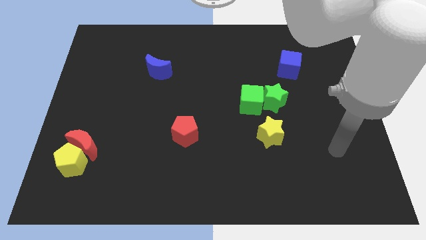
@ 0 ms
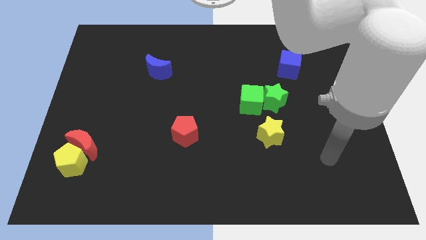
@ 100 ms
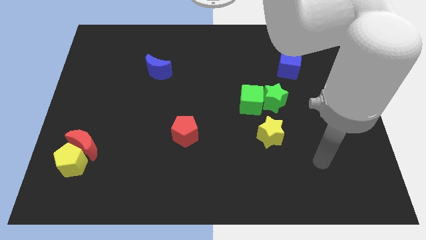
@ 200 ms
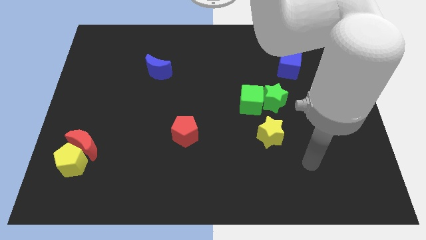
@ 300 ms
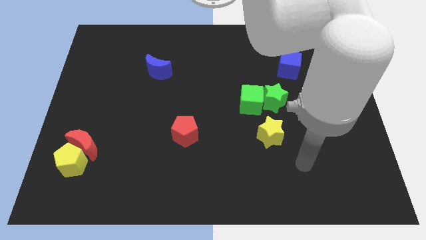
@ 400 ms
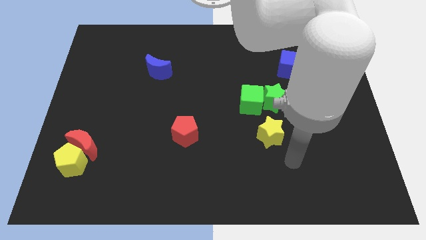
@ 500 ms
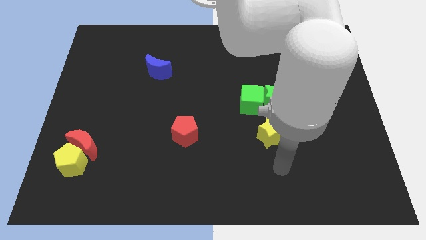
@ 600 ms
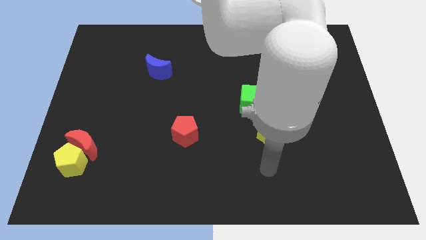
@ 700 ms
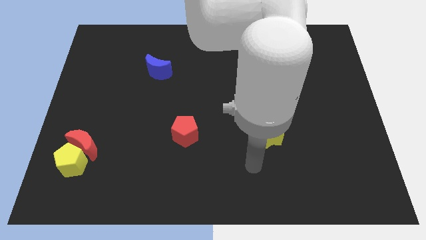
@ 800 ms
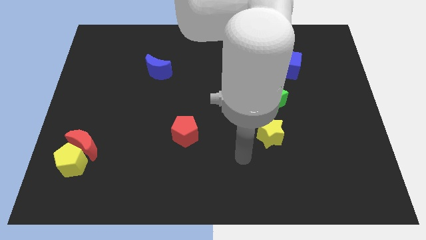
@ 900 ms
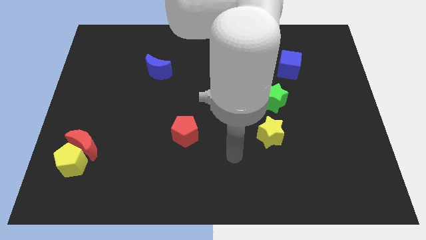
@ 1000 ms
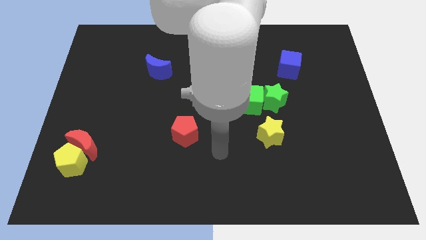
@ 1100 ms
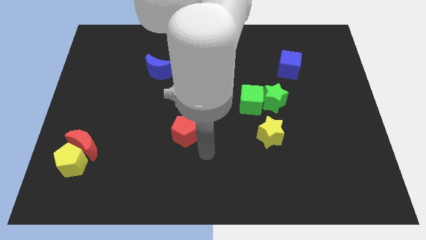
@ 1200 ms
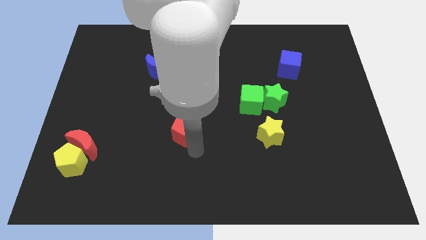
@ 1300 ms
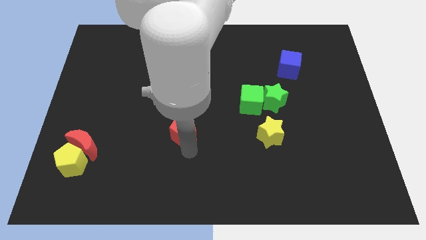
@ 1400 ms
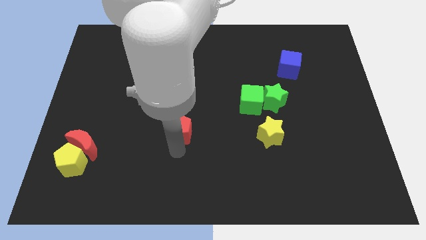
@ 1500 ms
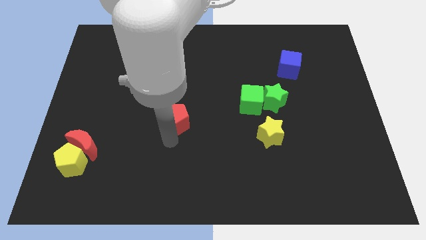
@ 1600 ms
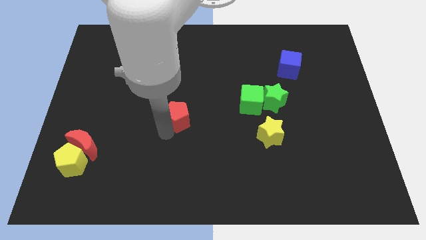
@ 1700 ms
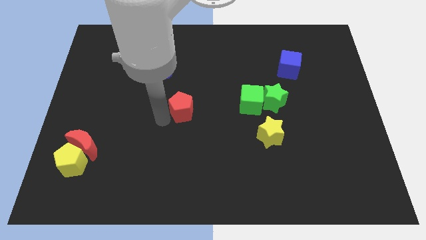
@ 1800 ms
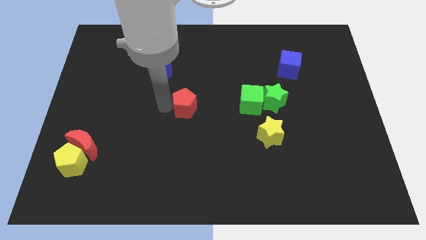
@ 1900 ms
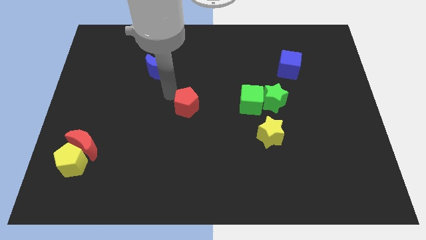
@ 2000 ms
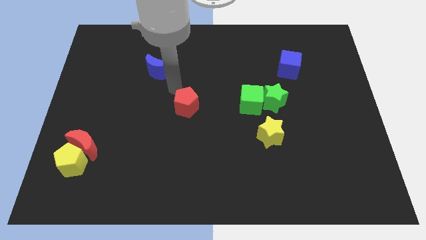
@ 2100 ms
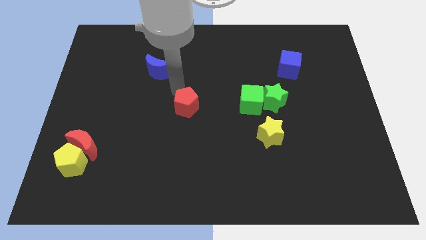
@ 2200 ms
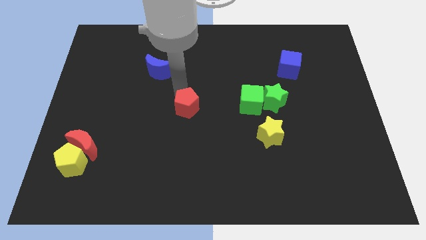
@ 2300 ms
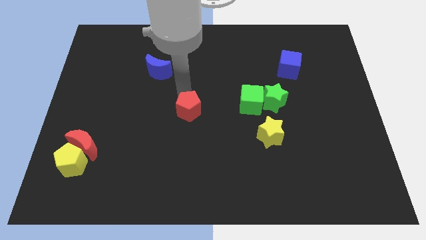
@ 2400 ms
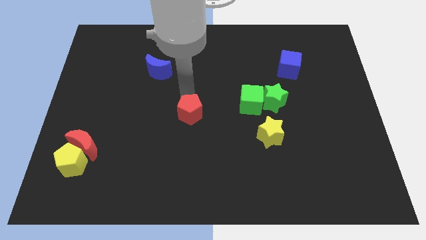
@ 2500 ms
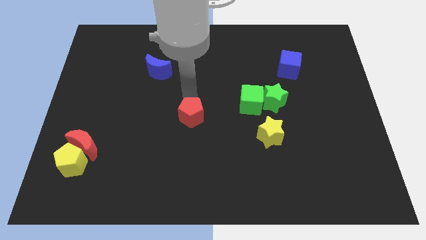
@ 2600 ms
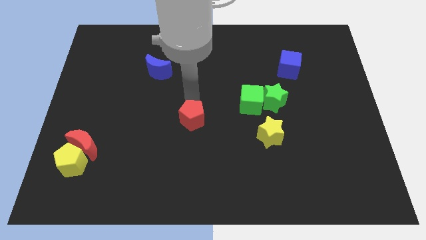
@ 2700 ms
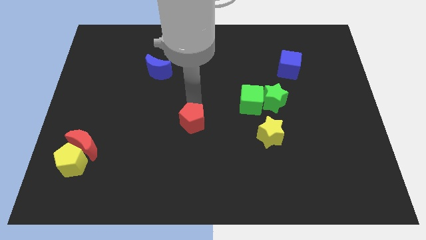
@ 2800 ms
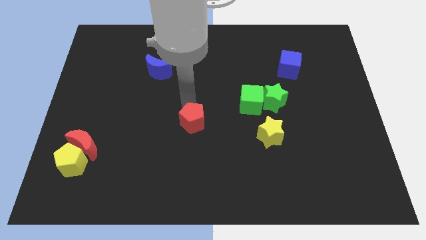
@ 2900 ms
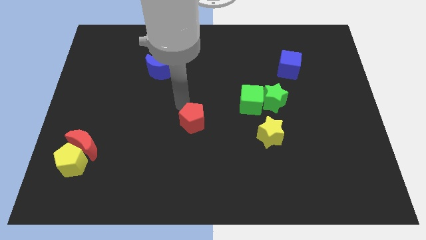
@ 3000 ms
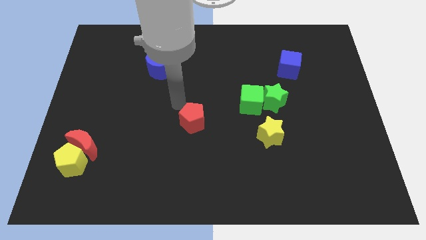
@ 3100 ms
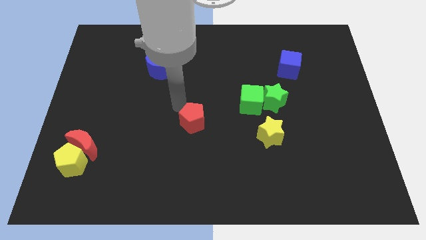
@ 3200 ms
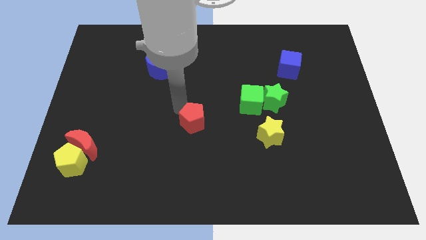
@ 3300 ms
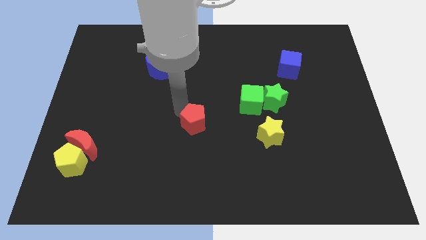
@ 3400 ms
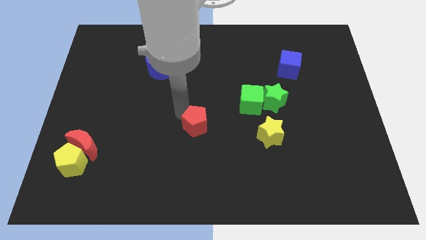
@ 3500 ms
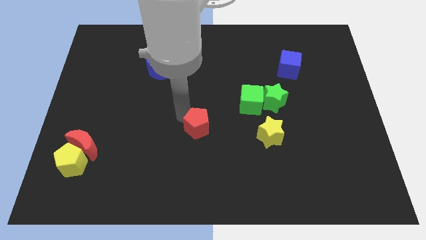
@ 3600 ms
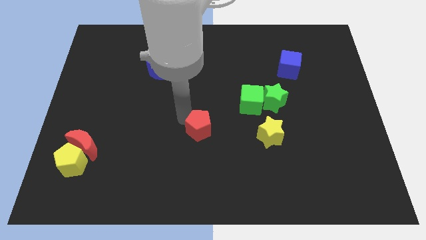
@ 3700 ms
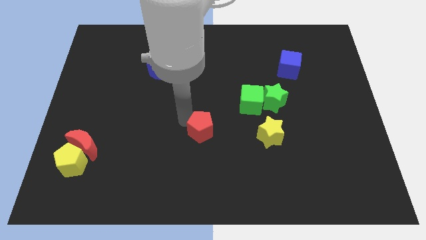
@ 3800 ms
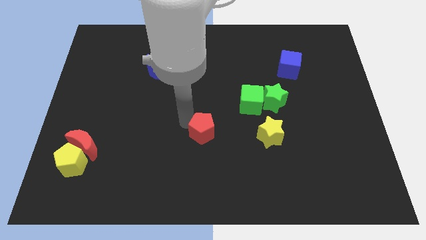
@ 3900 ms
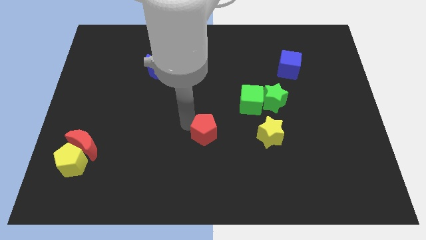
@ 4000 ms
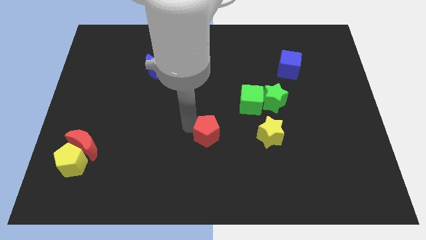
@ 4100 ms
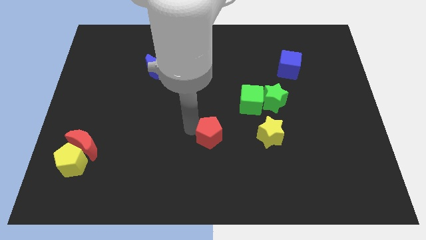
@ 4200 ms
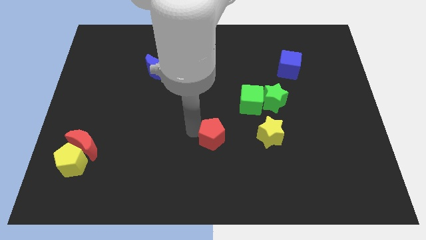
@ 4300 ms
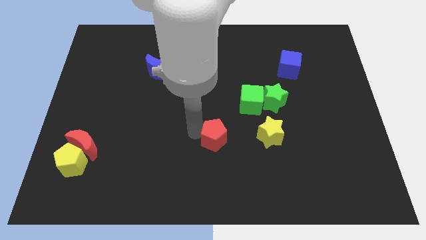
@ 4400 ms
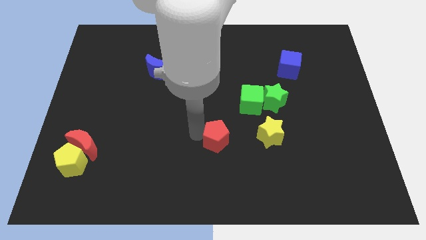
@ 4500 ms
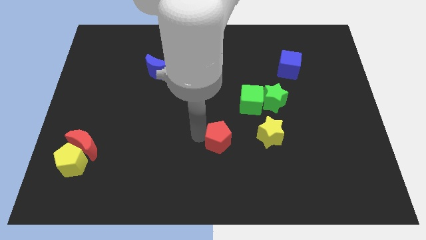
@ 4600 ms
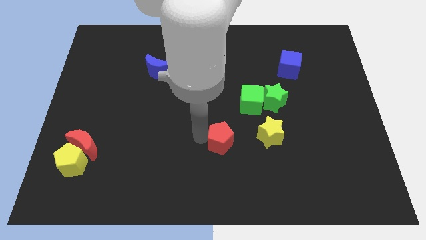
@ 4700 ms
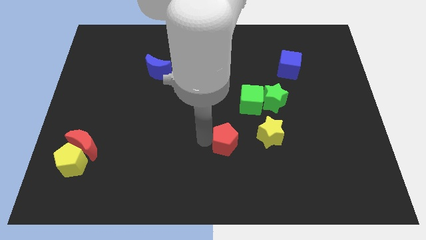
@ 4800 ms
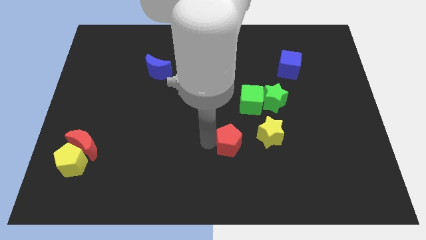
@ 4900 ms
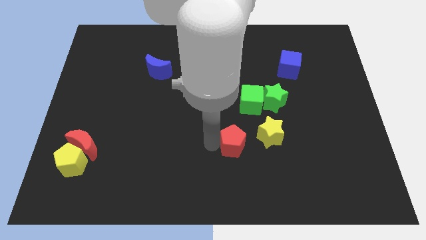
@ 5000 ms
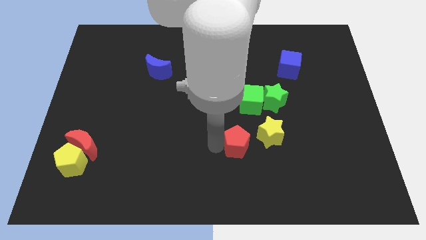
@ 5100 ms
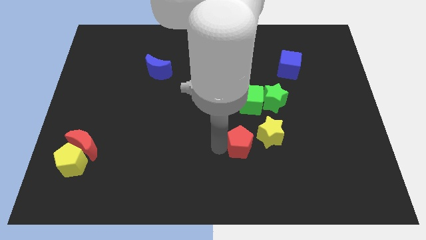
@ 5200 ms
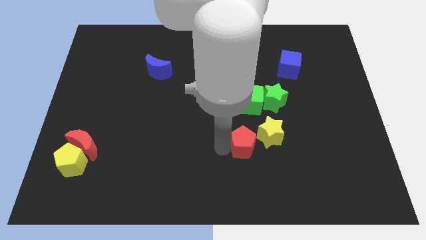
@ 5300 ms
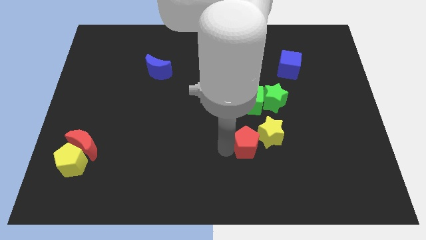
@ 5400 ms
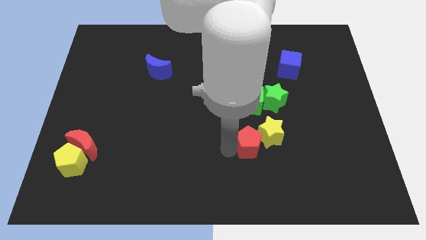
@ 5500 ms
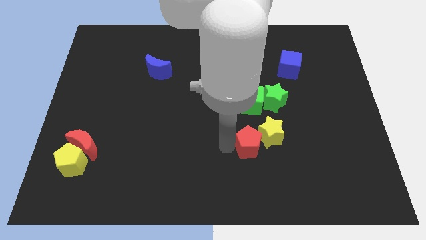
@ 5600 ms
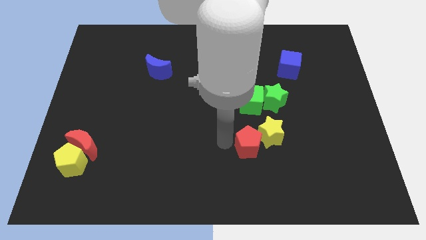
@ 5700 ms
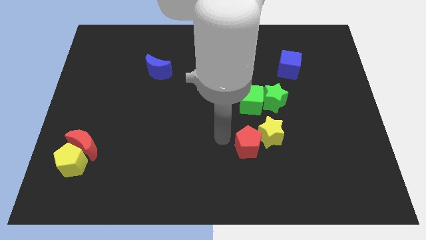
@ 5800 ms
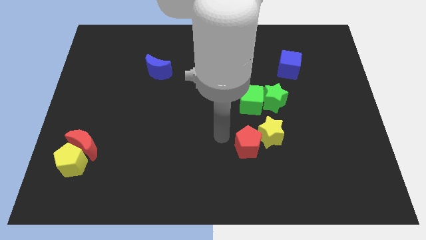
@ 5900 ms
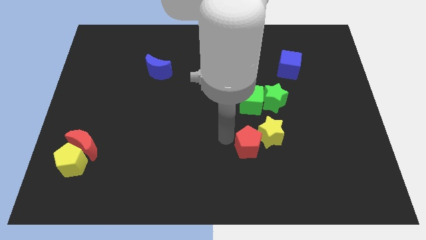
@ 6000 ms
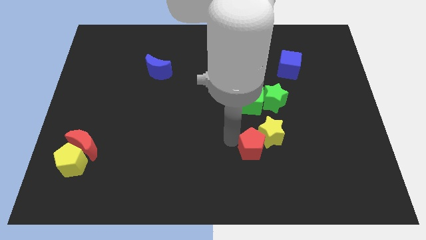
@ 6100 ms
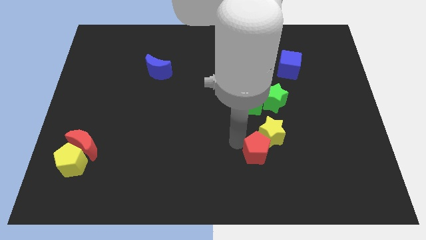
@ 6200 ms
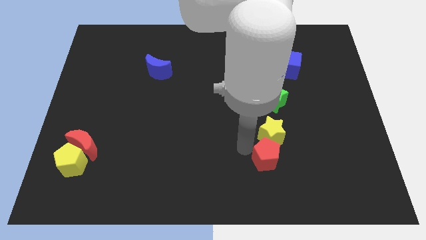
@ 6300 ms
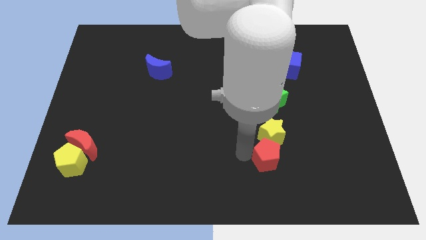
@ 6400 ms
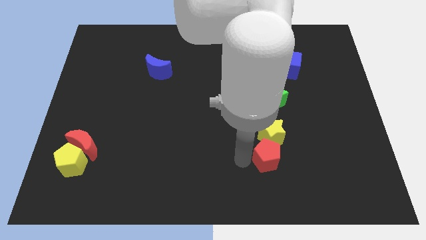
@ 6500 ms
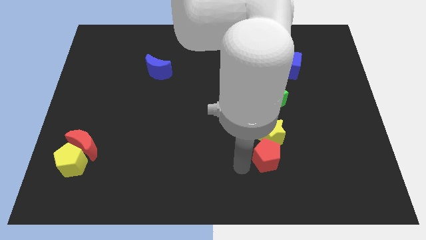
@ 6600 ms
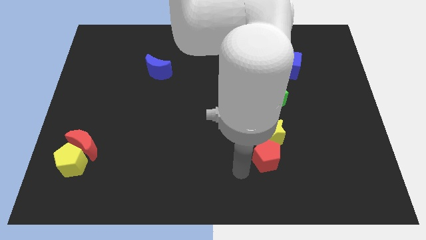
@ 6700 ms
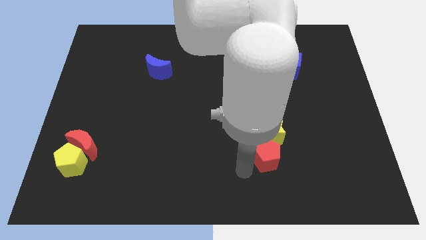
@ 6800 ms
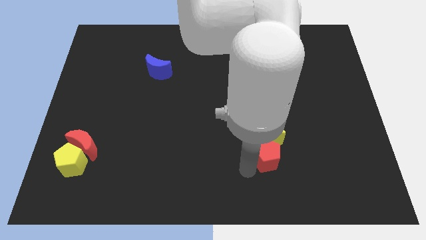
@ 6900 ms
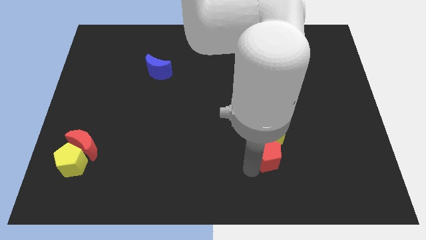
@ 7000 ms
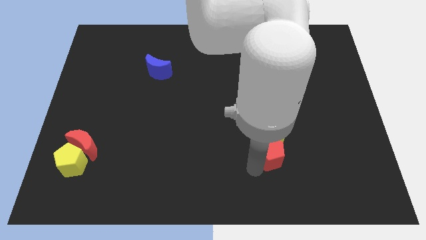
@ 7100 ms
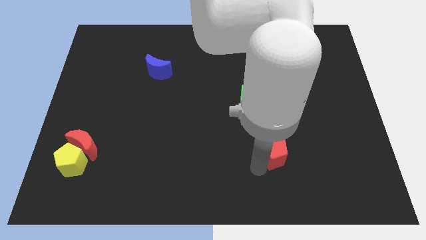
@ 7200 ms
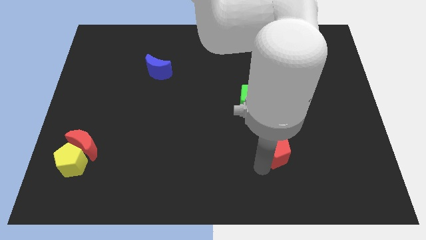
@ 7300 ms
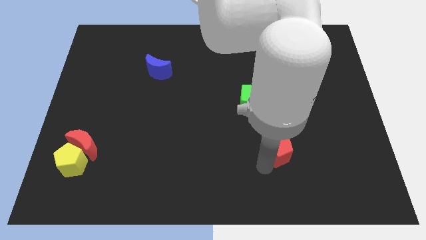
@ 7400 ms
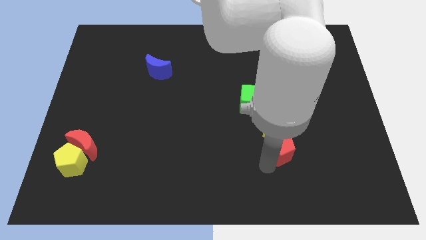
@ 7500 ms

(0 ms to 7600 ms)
slide the red pentagon right

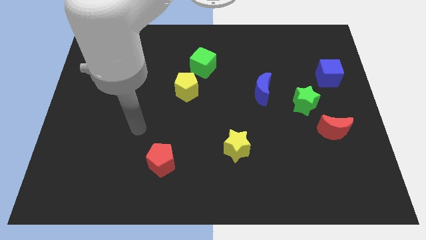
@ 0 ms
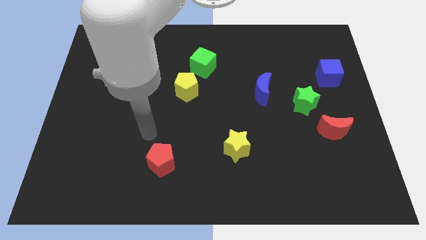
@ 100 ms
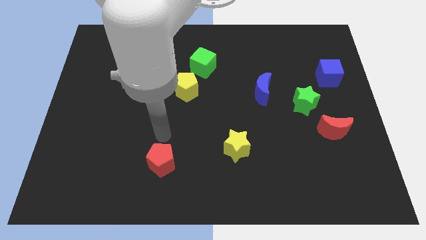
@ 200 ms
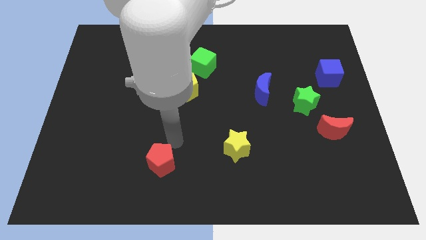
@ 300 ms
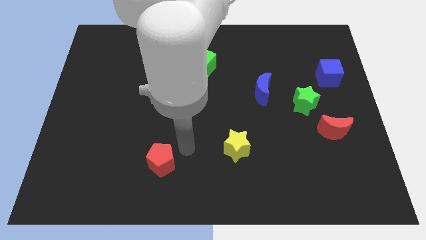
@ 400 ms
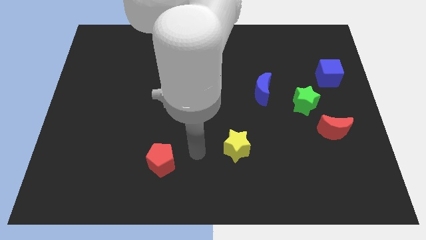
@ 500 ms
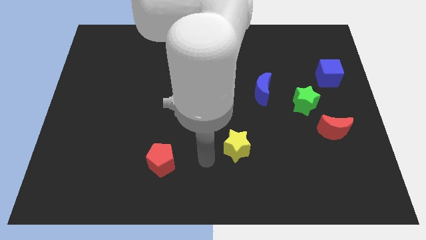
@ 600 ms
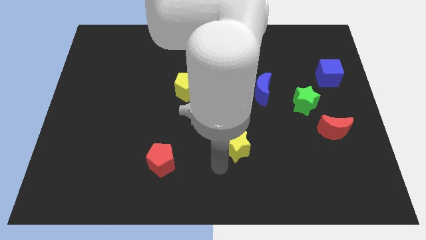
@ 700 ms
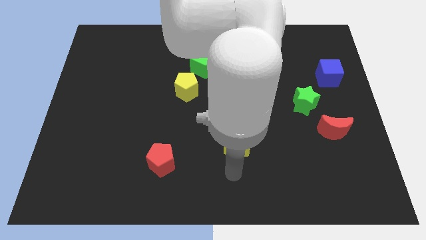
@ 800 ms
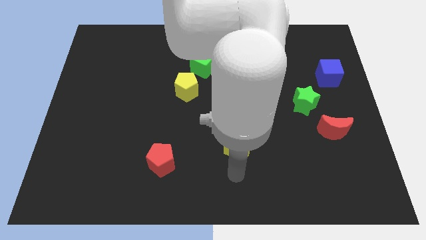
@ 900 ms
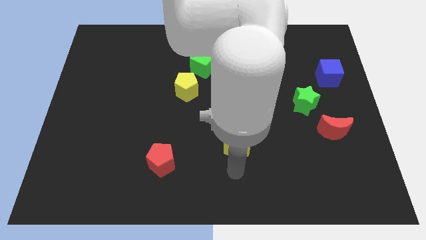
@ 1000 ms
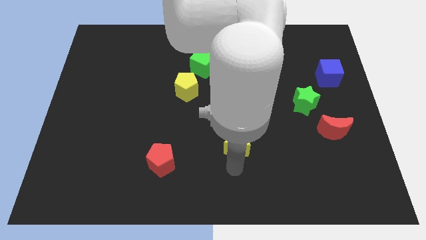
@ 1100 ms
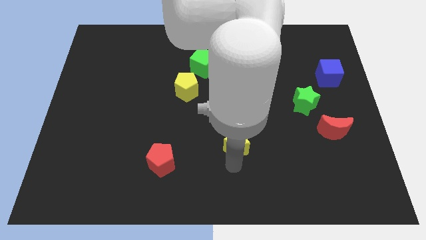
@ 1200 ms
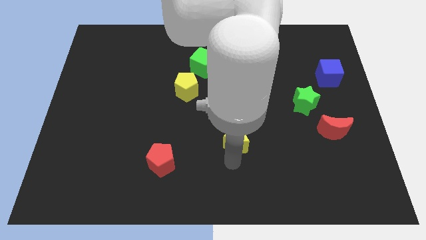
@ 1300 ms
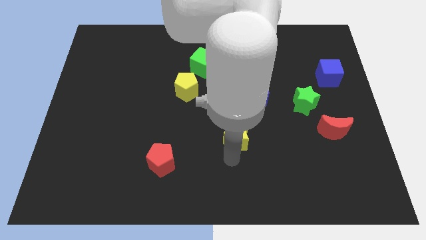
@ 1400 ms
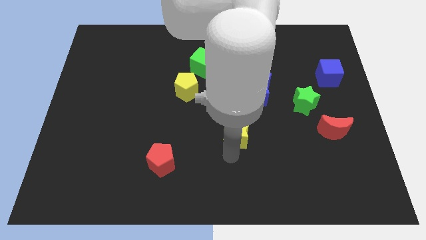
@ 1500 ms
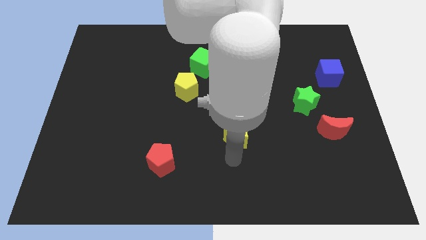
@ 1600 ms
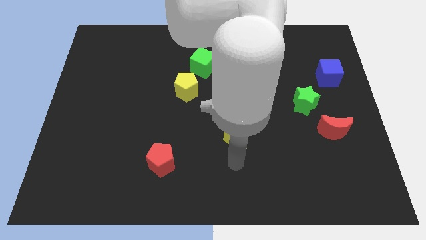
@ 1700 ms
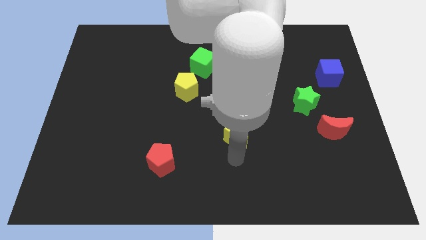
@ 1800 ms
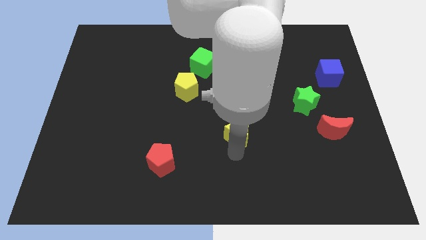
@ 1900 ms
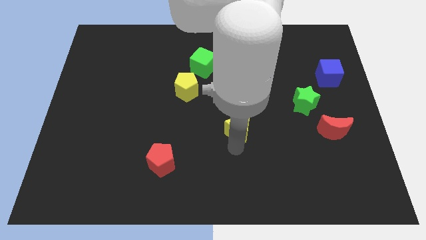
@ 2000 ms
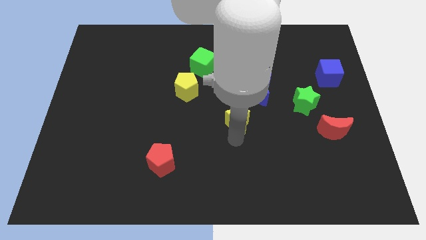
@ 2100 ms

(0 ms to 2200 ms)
move the yellow star upwards a little bit
